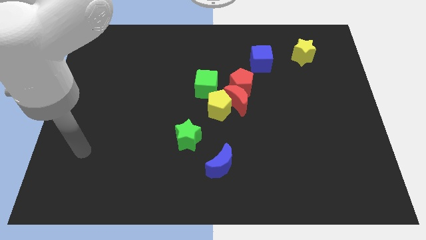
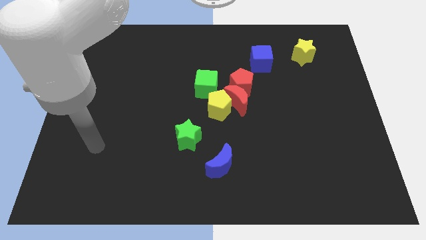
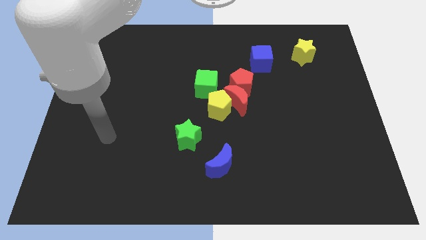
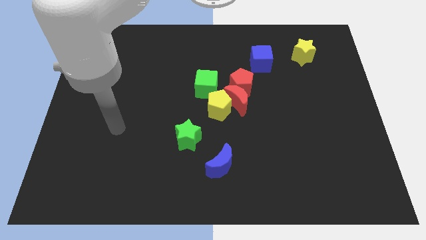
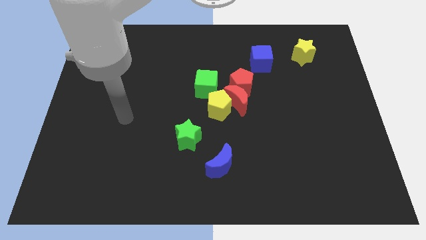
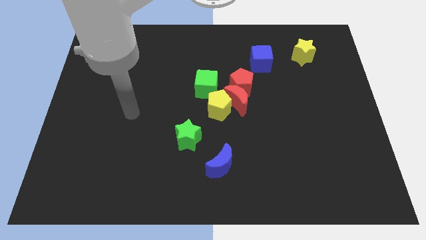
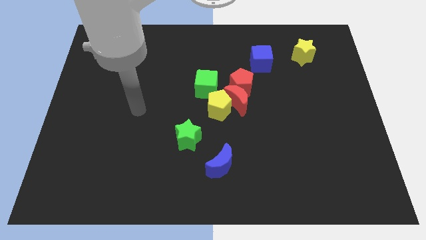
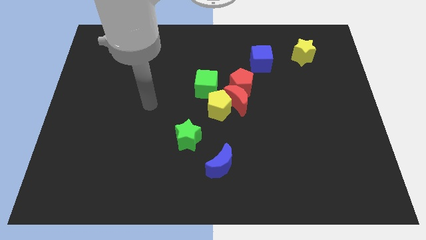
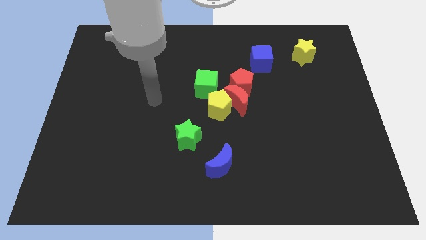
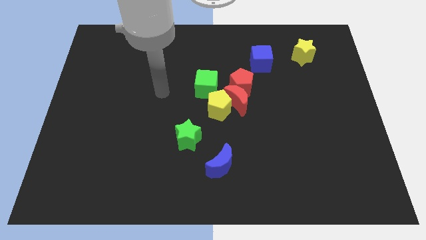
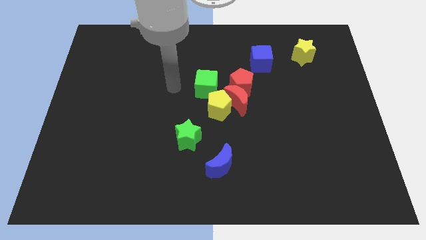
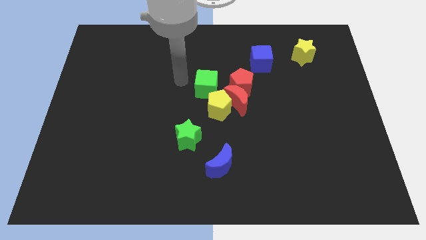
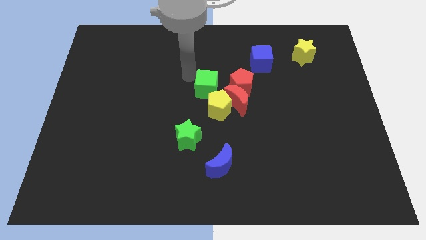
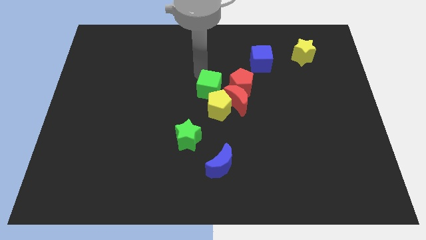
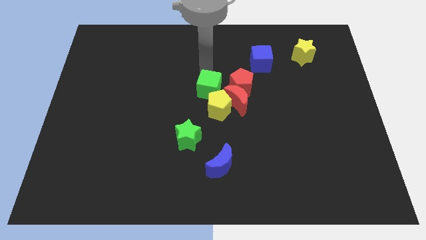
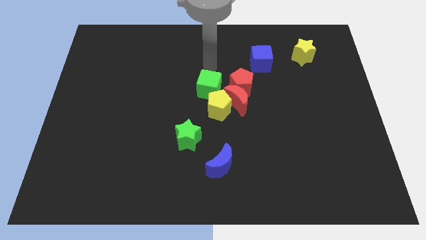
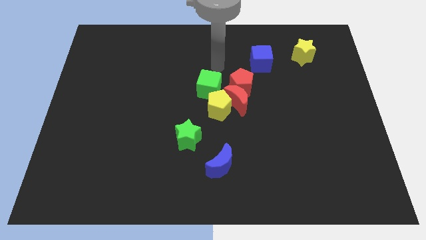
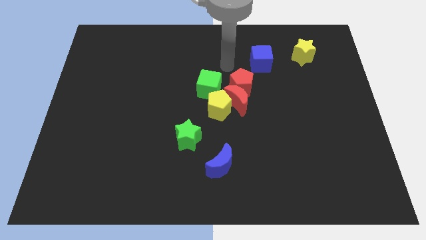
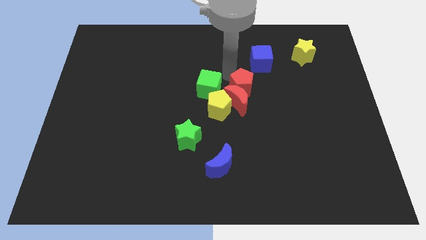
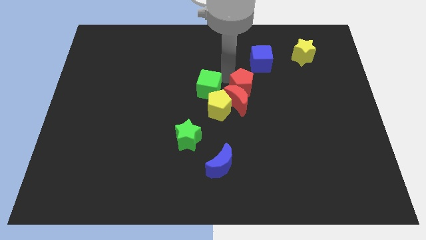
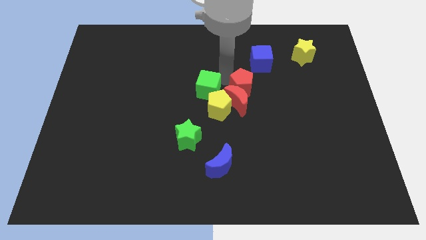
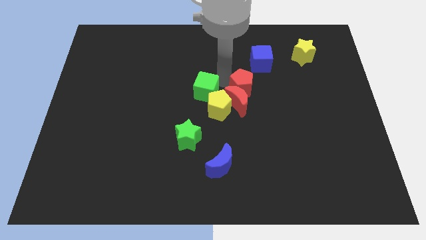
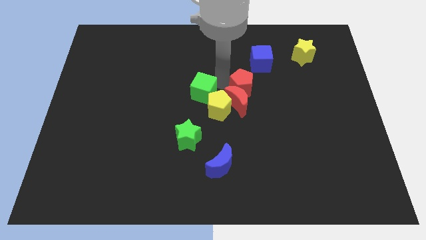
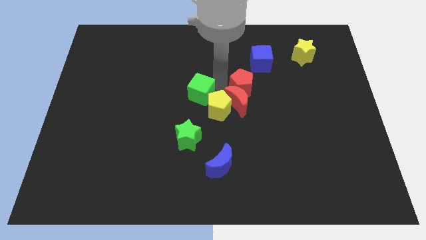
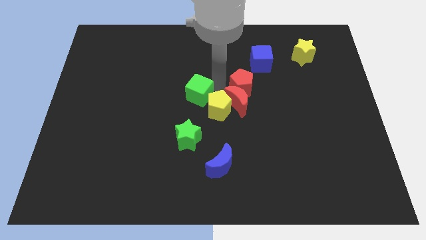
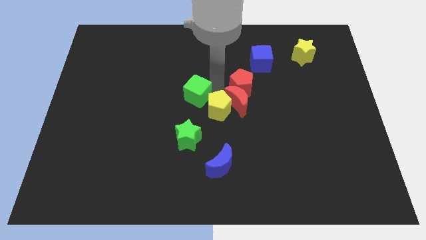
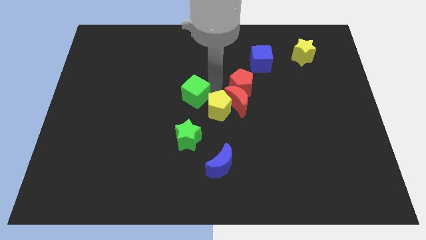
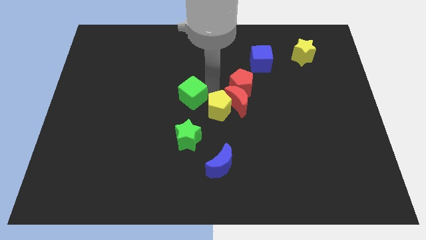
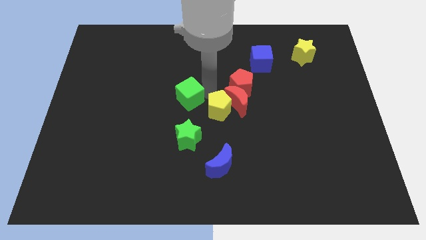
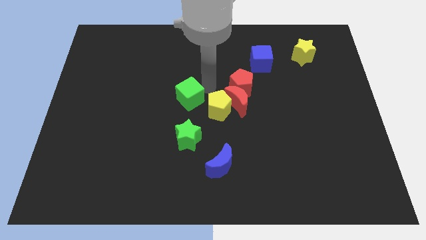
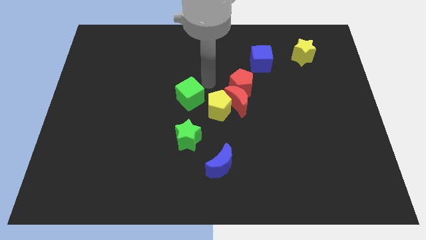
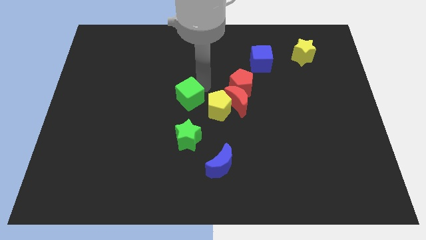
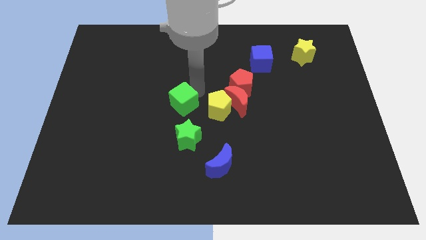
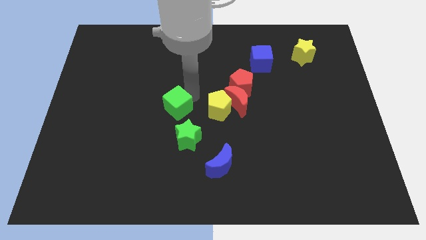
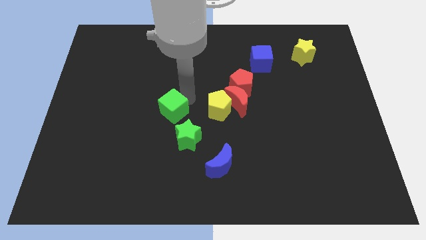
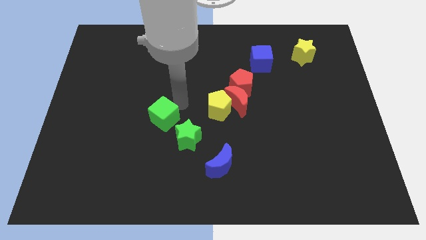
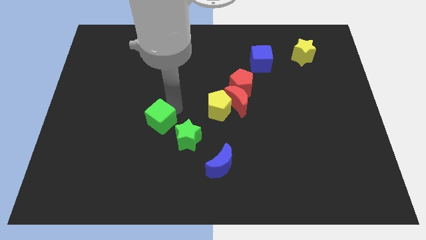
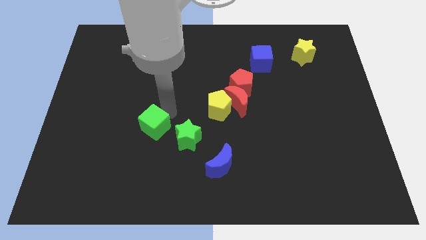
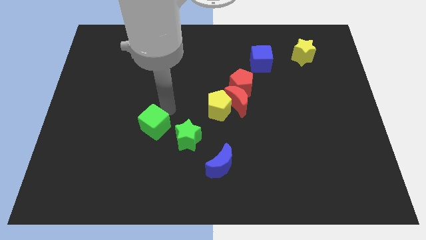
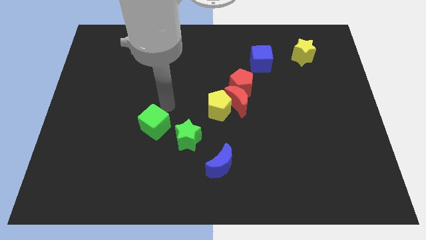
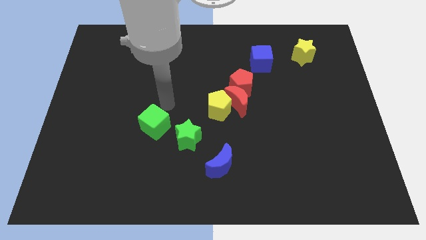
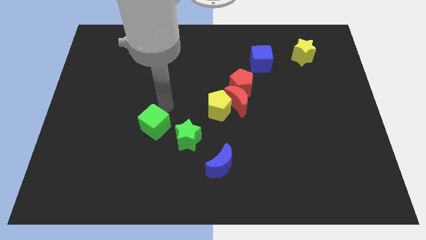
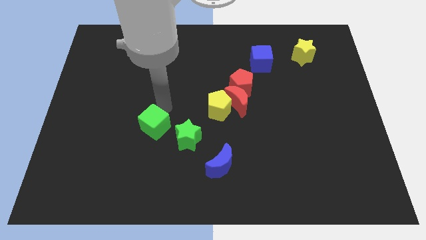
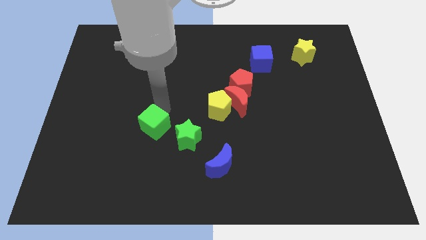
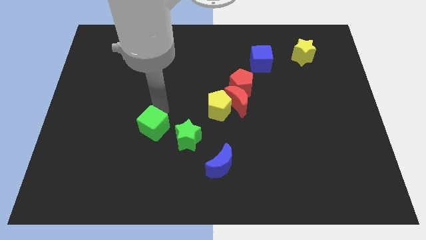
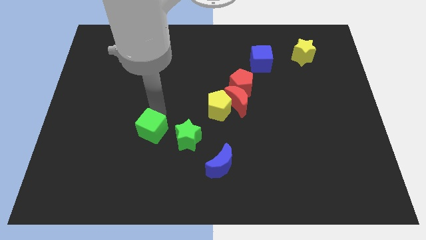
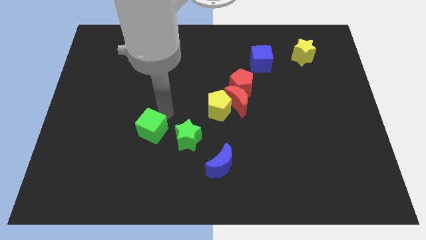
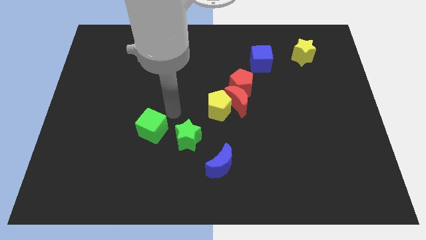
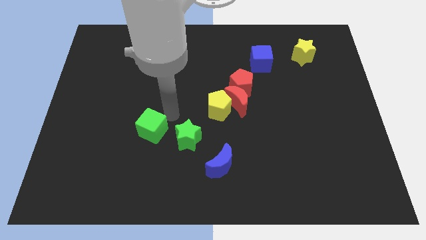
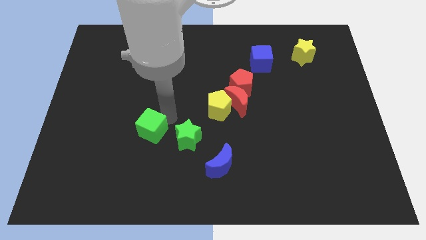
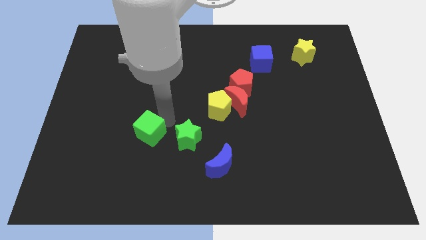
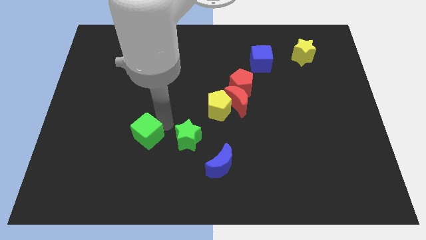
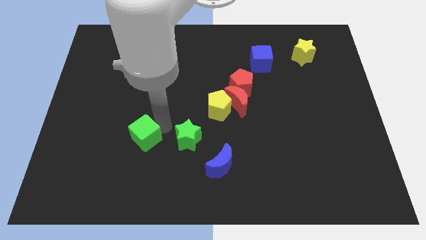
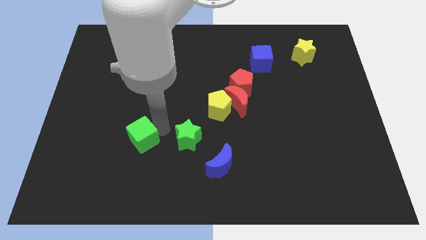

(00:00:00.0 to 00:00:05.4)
slide the green cube diagonally down and to the left

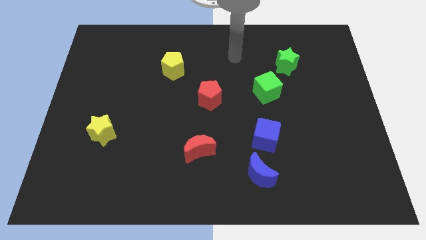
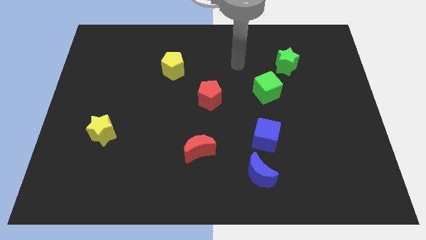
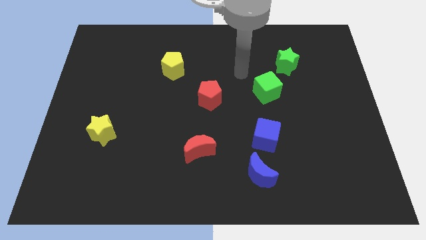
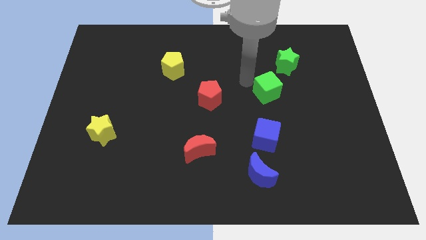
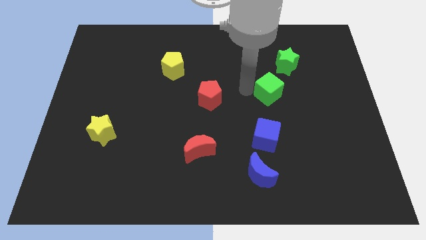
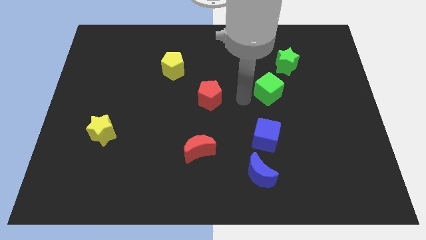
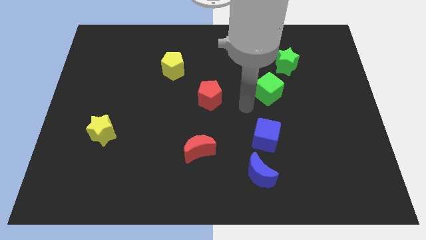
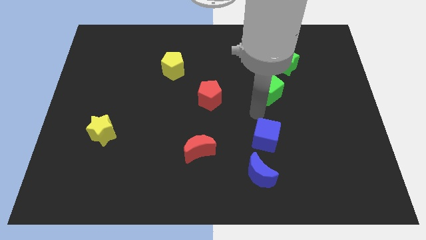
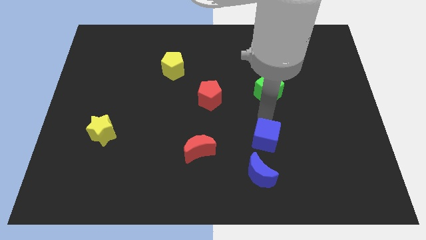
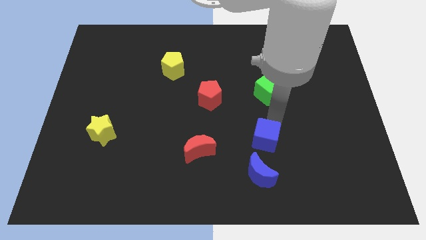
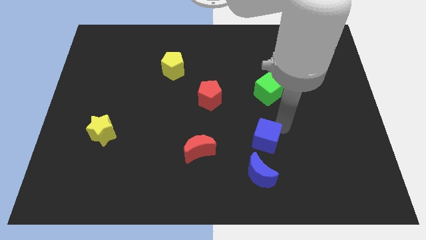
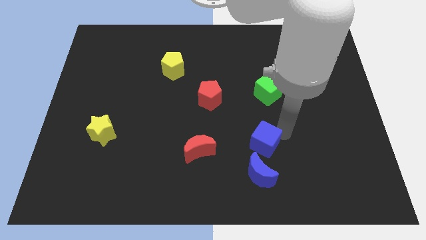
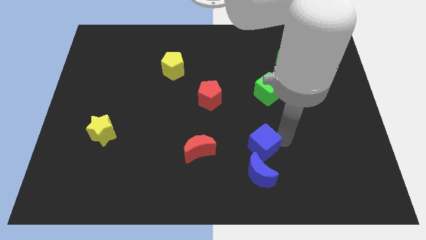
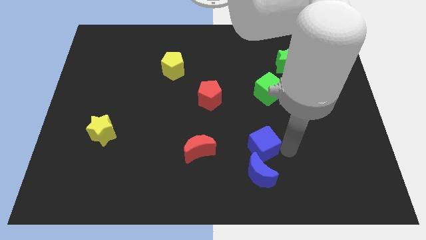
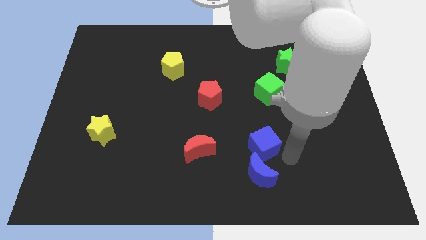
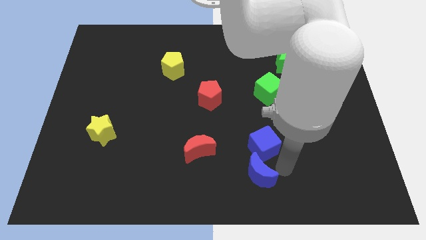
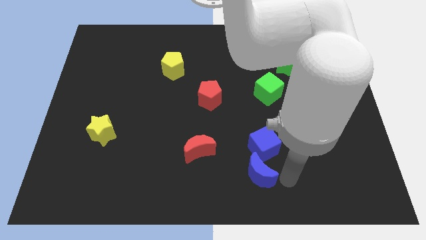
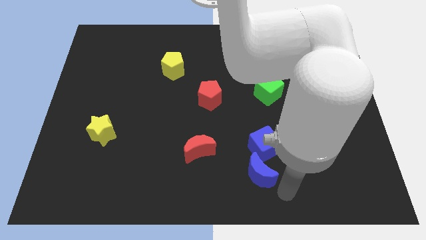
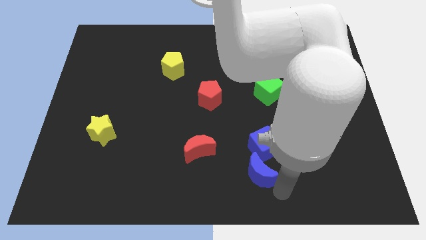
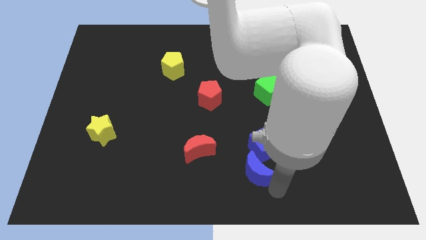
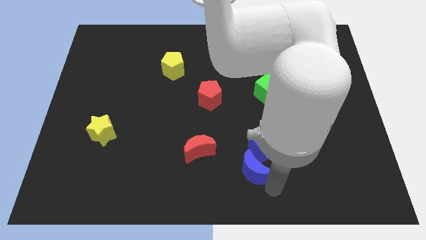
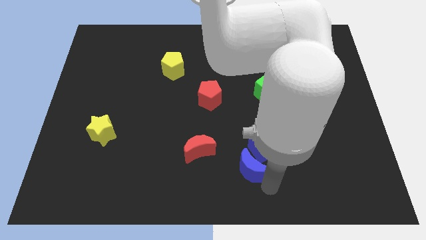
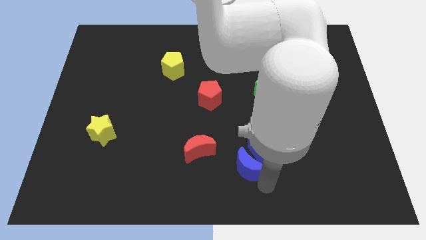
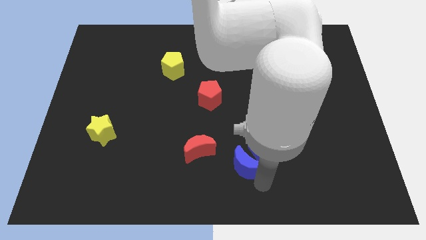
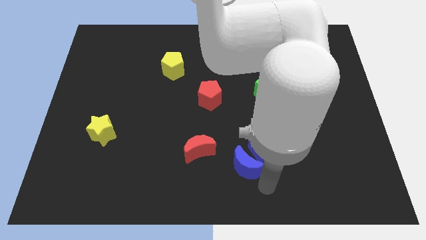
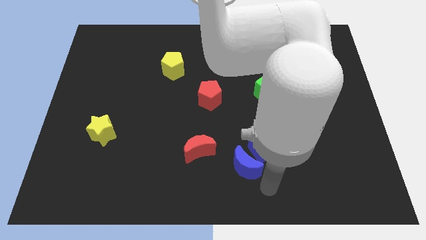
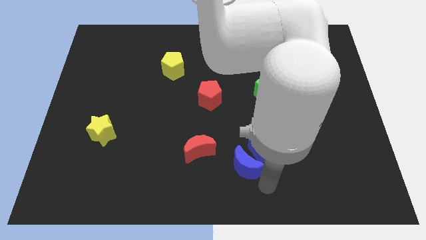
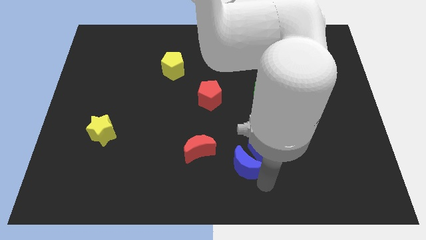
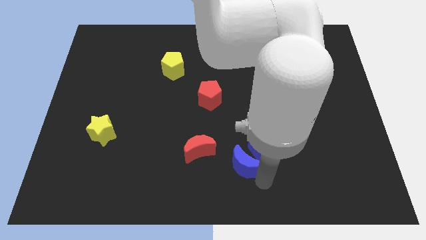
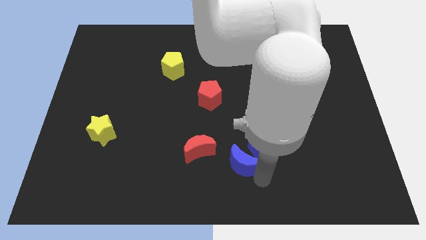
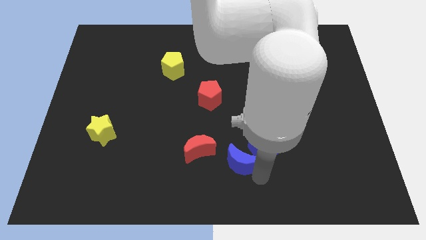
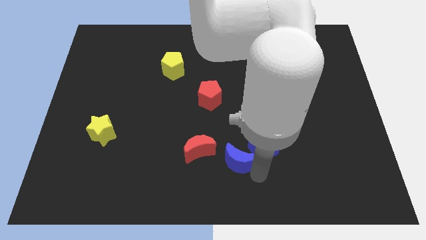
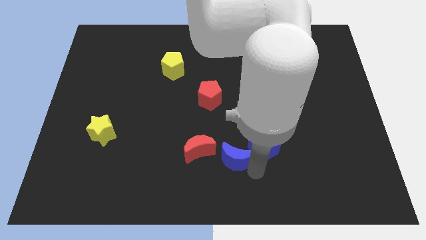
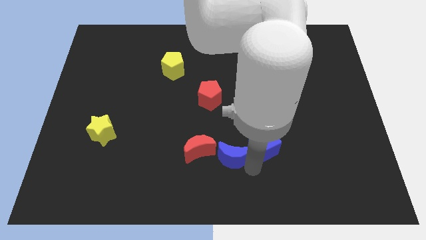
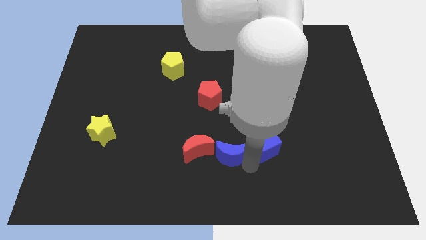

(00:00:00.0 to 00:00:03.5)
slightly slide the blue moon up and left
